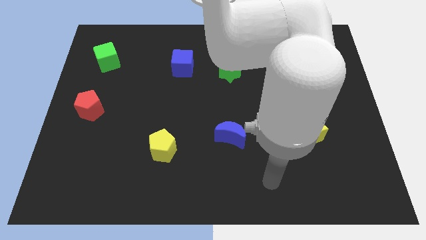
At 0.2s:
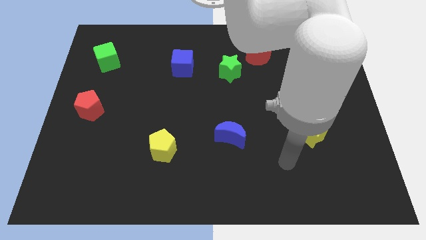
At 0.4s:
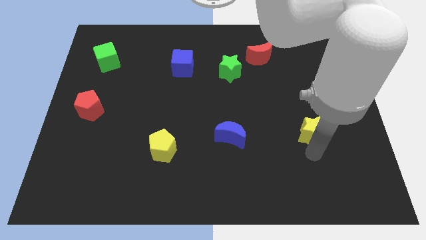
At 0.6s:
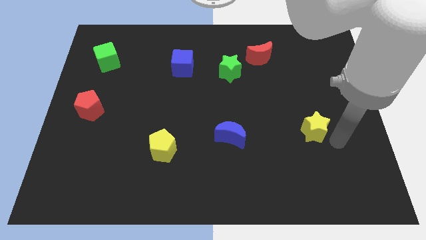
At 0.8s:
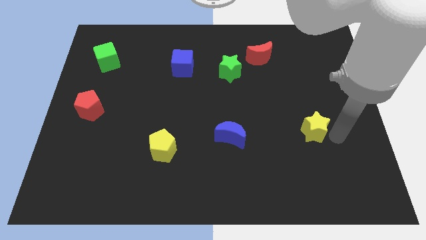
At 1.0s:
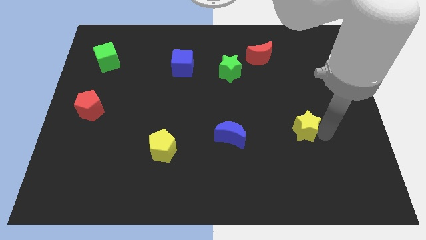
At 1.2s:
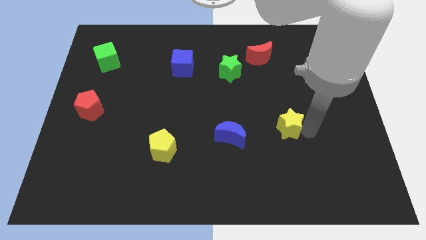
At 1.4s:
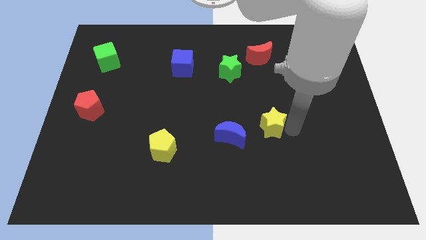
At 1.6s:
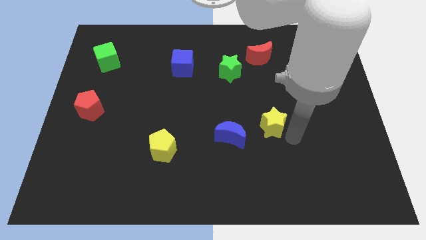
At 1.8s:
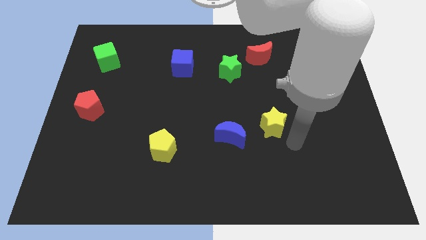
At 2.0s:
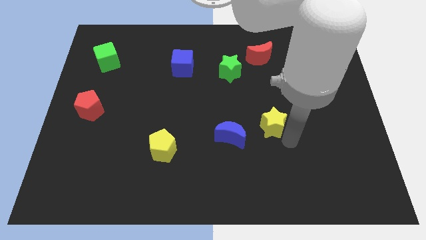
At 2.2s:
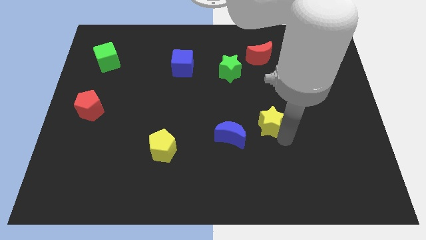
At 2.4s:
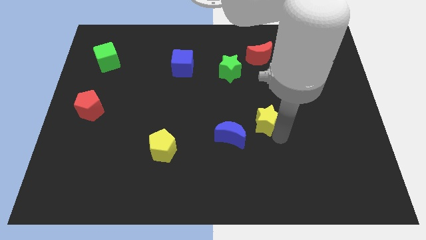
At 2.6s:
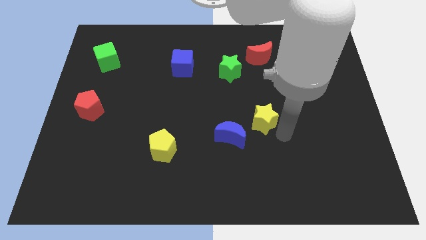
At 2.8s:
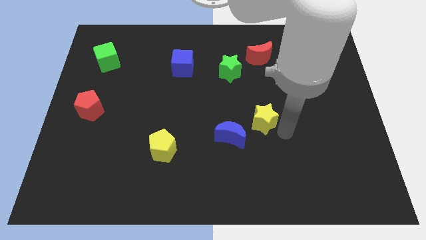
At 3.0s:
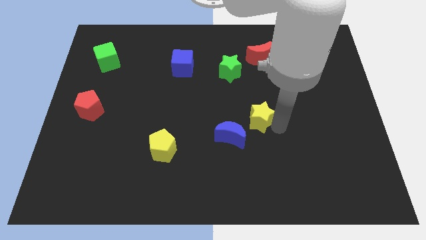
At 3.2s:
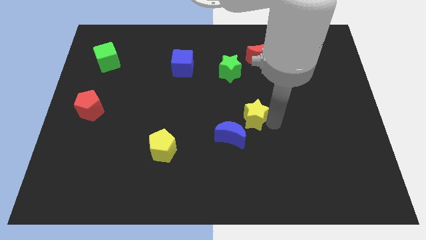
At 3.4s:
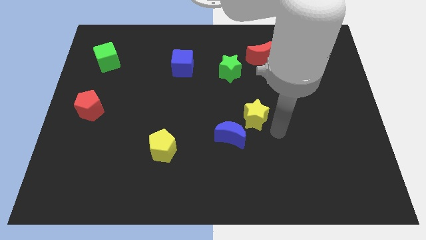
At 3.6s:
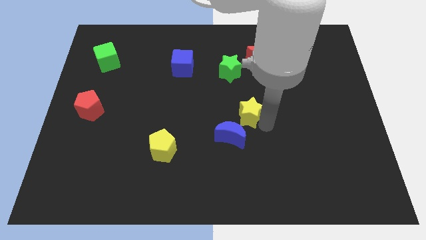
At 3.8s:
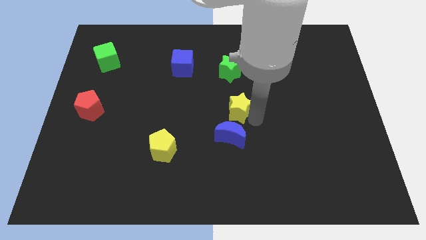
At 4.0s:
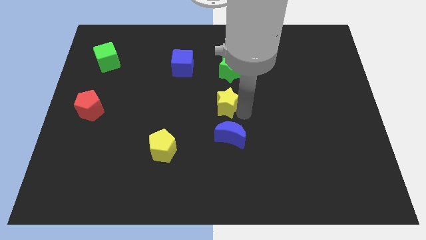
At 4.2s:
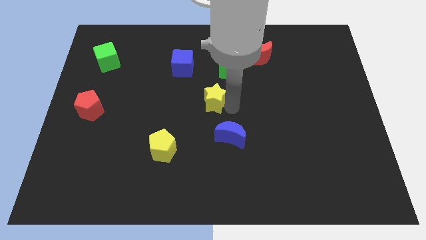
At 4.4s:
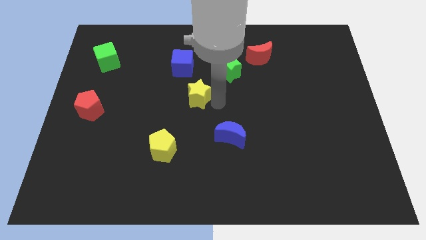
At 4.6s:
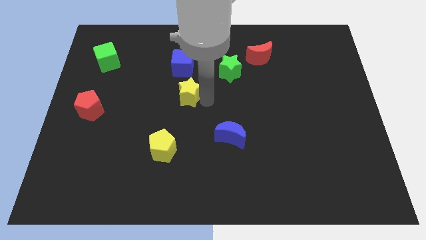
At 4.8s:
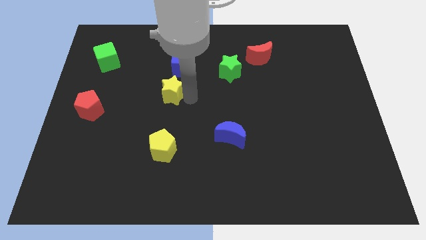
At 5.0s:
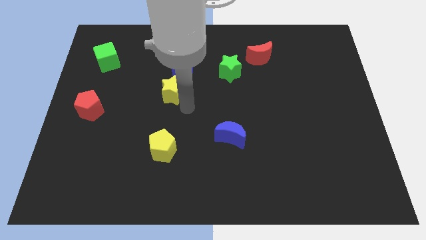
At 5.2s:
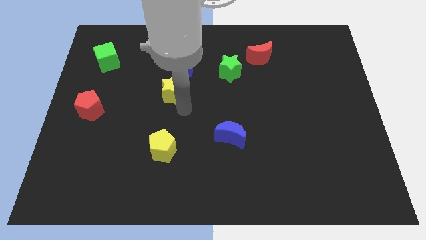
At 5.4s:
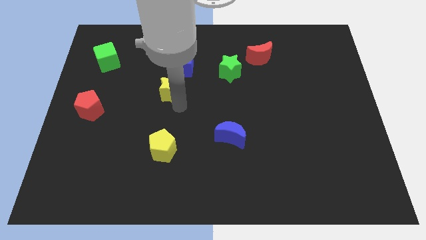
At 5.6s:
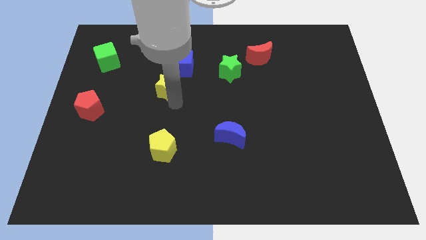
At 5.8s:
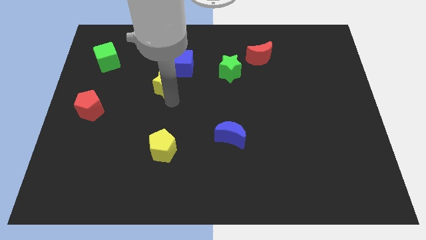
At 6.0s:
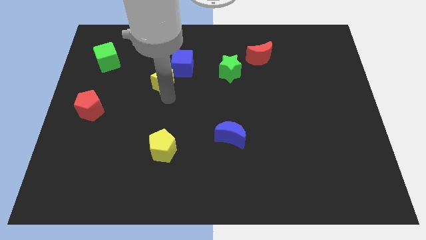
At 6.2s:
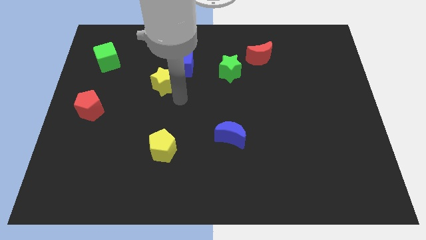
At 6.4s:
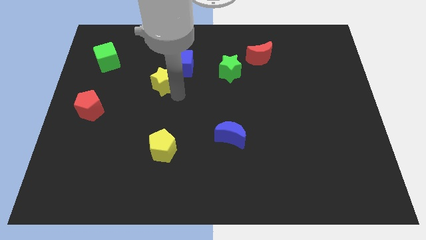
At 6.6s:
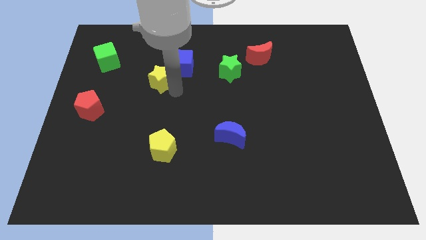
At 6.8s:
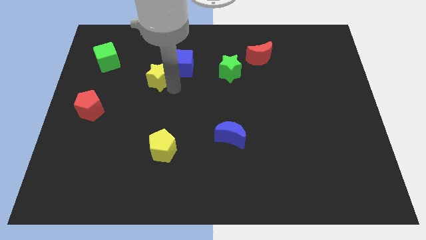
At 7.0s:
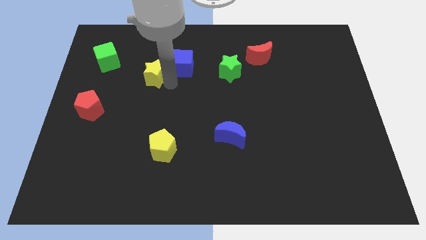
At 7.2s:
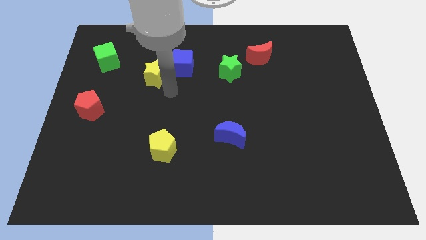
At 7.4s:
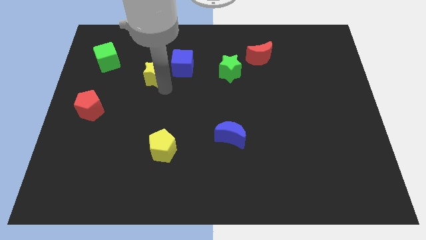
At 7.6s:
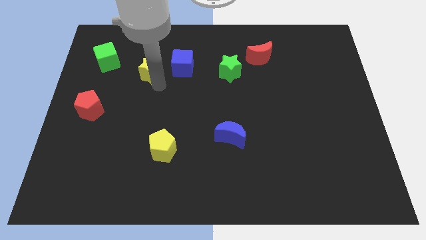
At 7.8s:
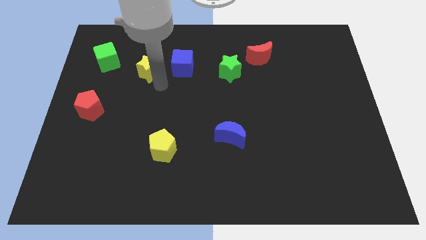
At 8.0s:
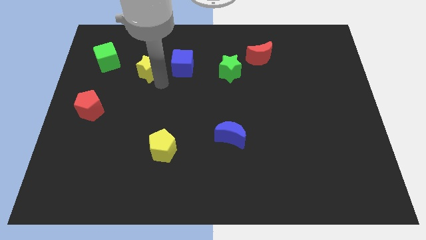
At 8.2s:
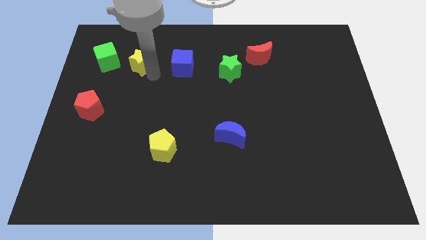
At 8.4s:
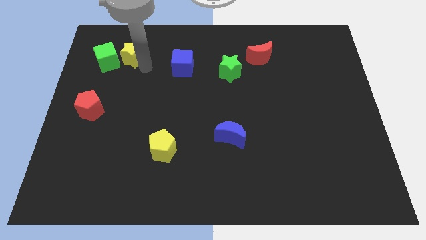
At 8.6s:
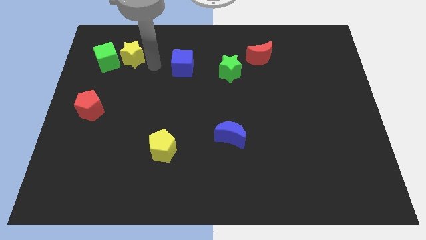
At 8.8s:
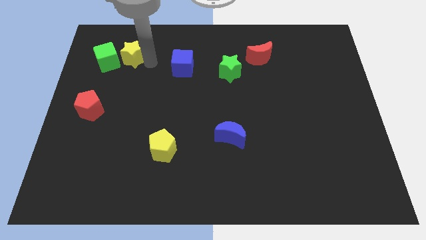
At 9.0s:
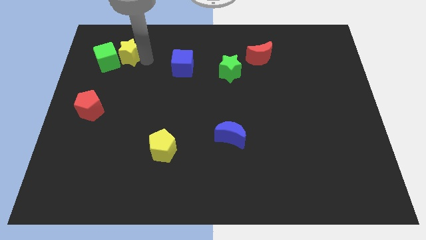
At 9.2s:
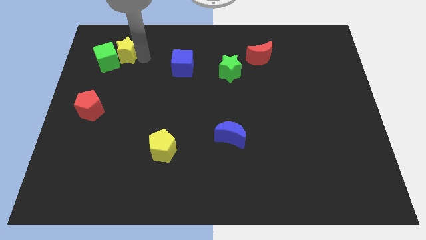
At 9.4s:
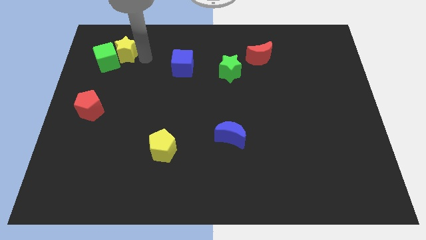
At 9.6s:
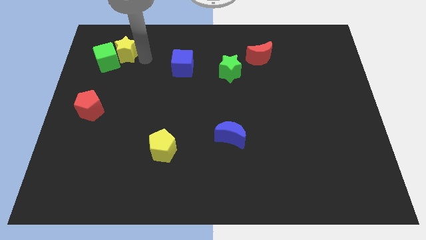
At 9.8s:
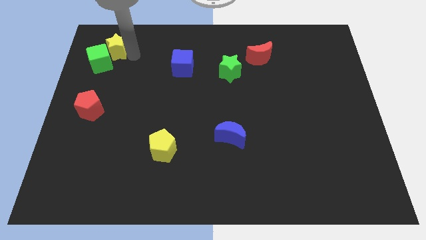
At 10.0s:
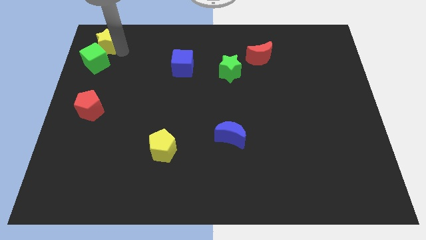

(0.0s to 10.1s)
slide the yellow star to the top left of the board

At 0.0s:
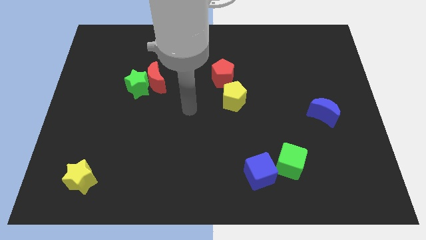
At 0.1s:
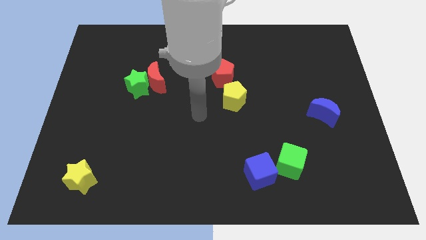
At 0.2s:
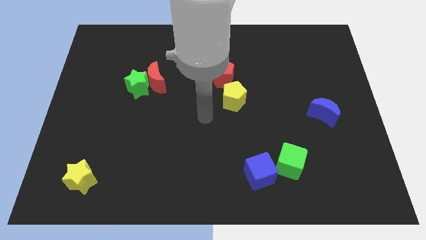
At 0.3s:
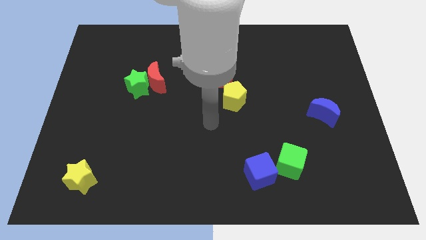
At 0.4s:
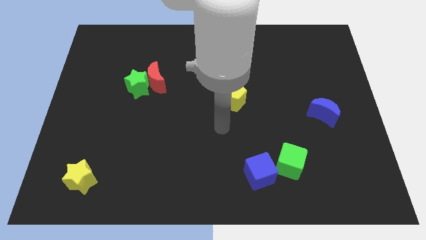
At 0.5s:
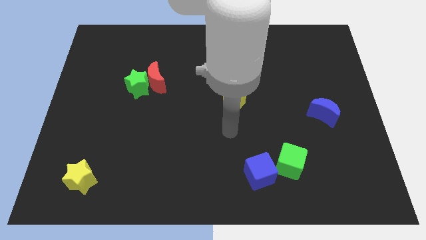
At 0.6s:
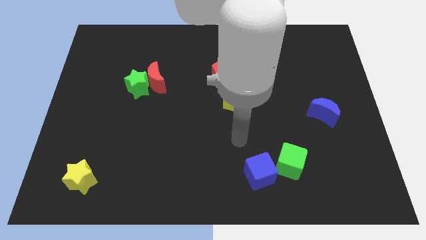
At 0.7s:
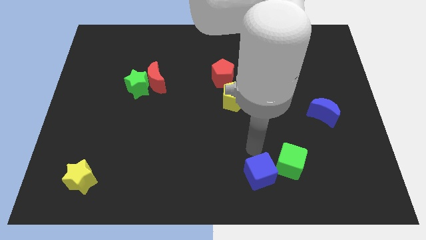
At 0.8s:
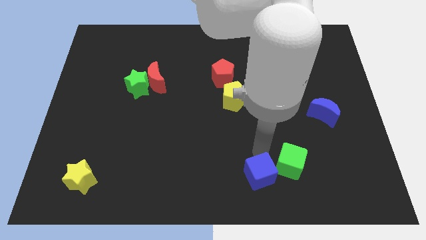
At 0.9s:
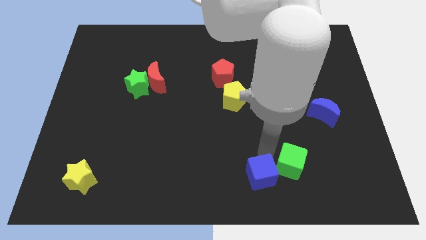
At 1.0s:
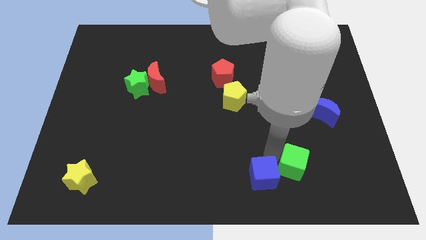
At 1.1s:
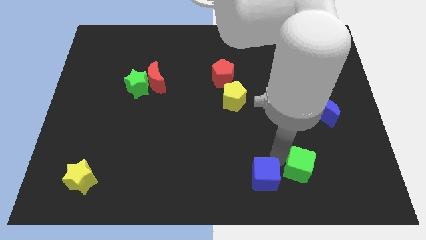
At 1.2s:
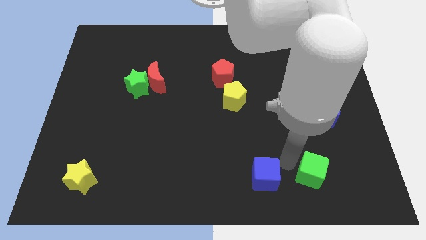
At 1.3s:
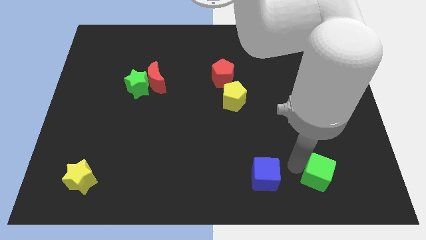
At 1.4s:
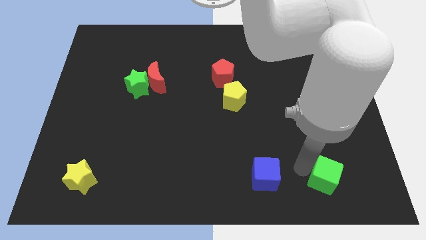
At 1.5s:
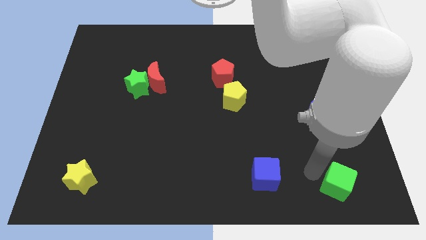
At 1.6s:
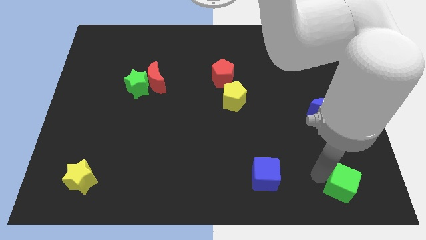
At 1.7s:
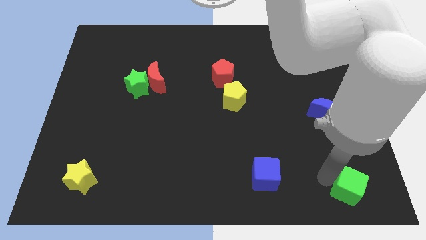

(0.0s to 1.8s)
push the green cube to the lower right corner
